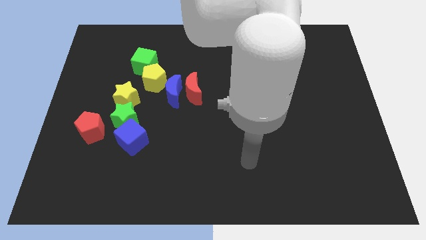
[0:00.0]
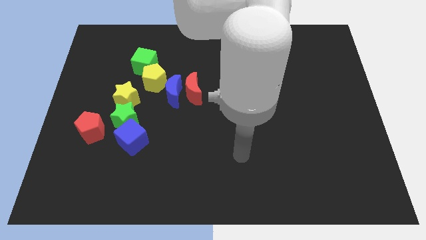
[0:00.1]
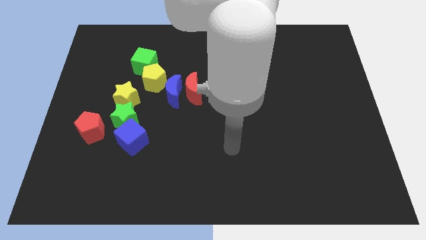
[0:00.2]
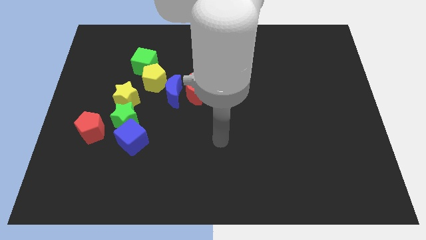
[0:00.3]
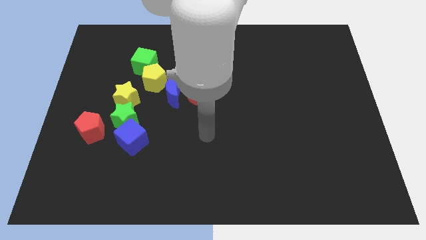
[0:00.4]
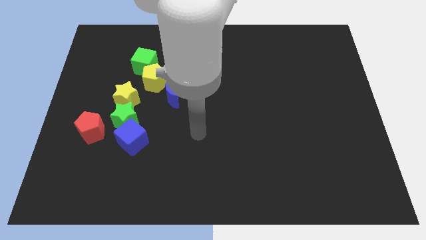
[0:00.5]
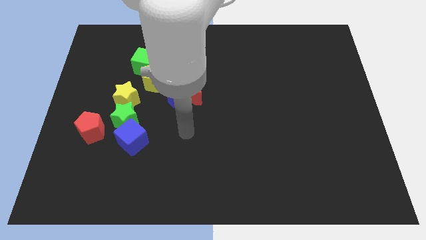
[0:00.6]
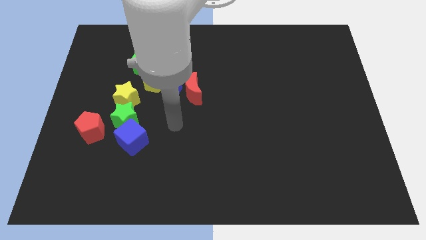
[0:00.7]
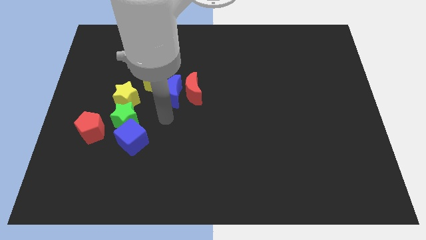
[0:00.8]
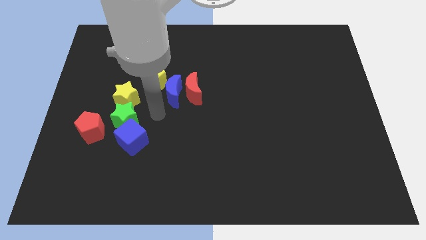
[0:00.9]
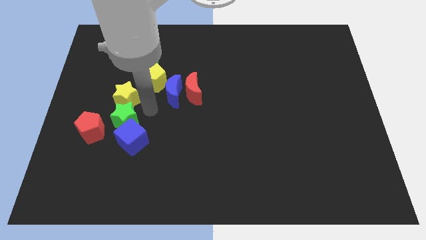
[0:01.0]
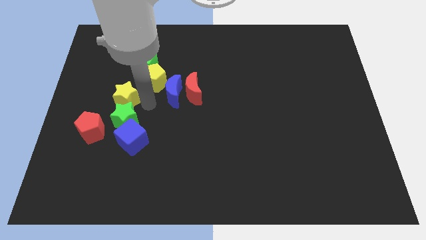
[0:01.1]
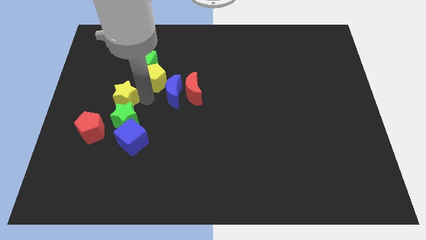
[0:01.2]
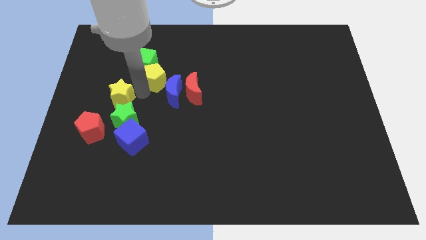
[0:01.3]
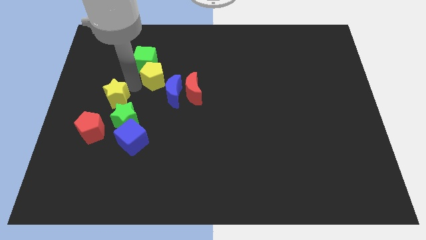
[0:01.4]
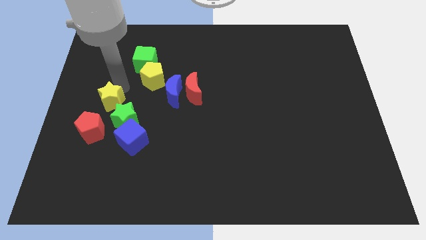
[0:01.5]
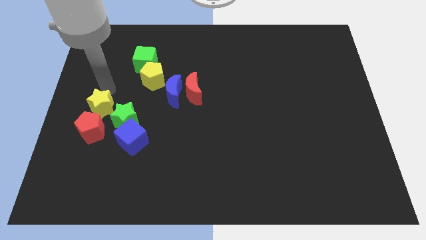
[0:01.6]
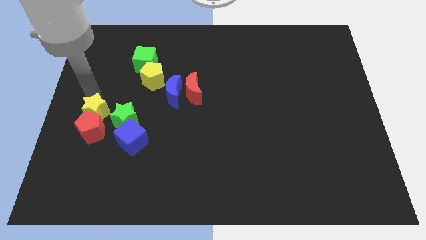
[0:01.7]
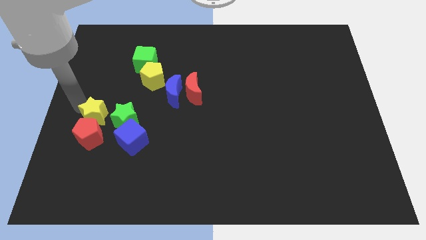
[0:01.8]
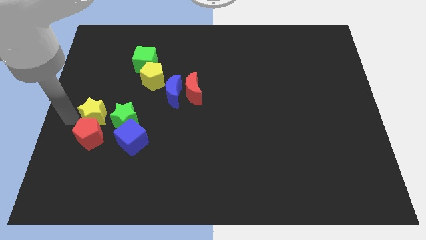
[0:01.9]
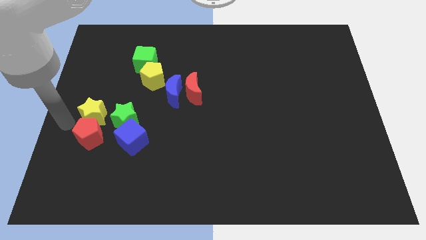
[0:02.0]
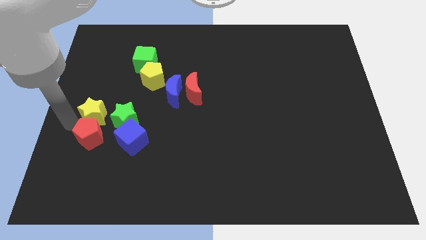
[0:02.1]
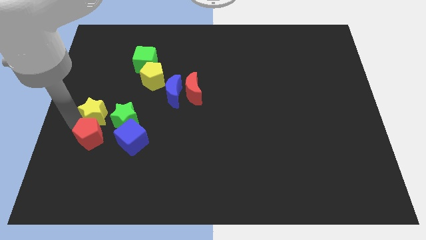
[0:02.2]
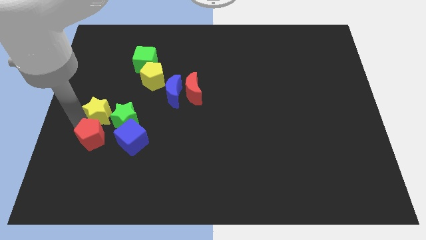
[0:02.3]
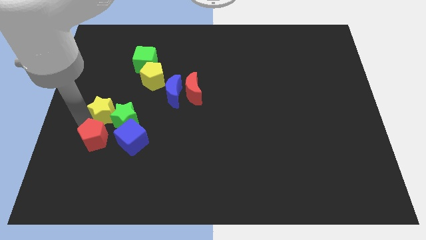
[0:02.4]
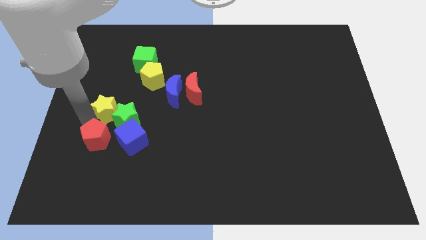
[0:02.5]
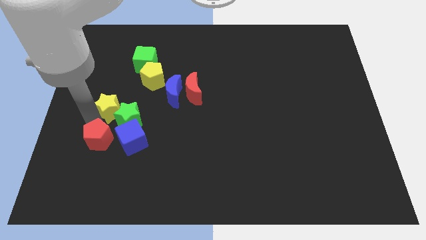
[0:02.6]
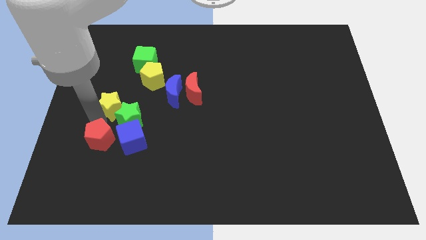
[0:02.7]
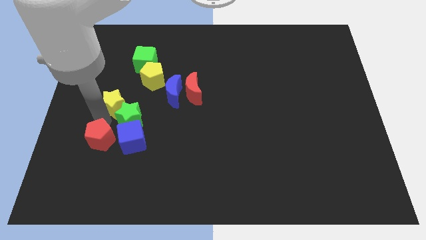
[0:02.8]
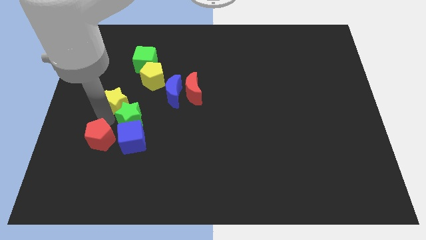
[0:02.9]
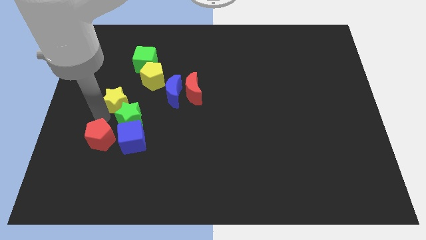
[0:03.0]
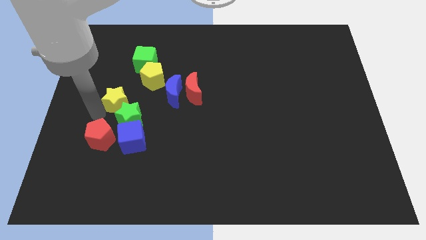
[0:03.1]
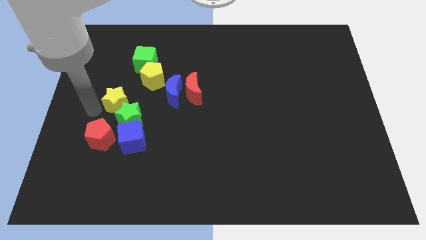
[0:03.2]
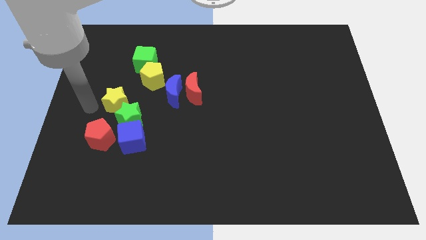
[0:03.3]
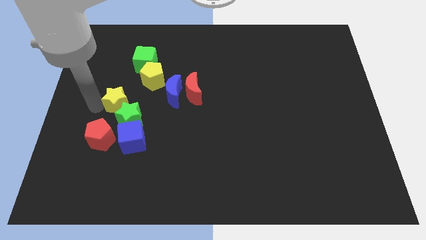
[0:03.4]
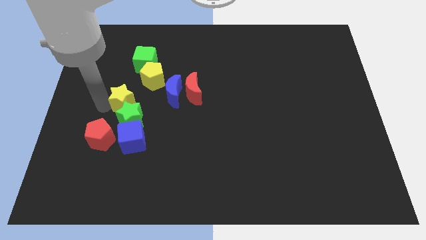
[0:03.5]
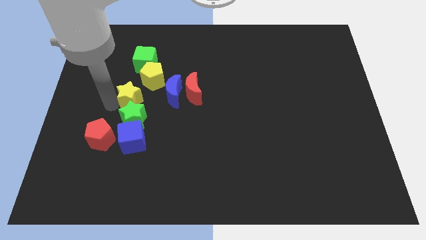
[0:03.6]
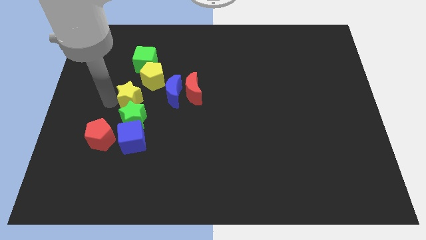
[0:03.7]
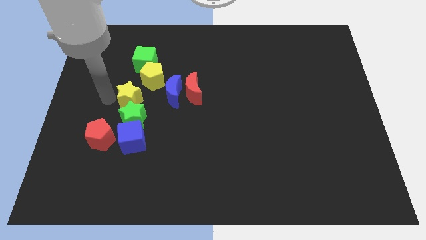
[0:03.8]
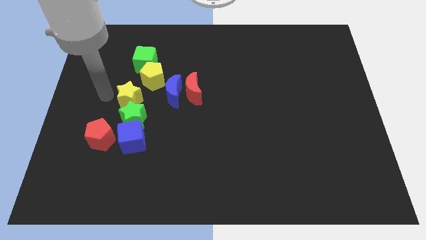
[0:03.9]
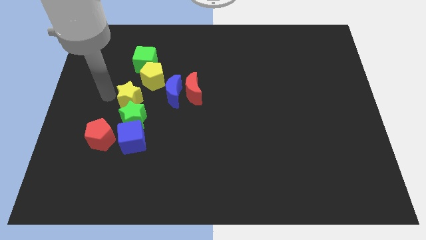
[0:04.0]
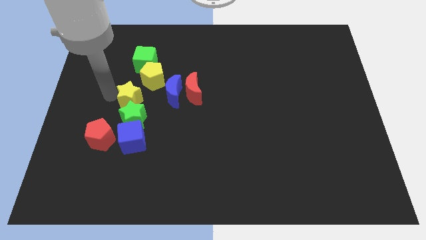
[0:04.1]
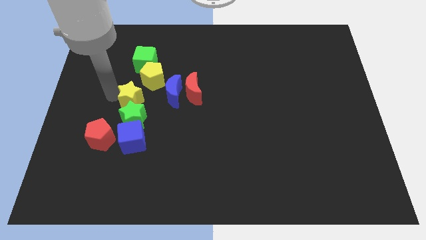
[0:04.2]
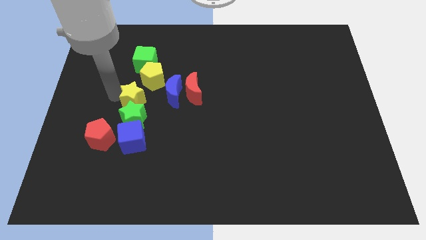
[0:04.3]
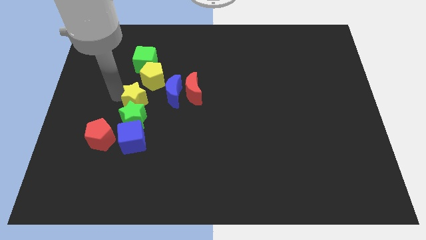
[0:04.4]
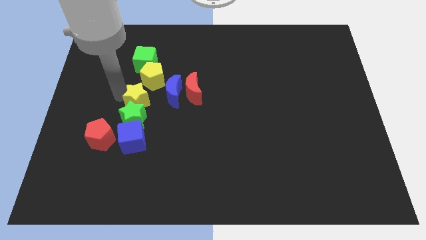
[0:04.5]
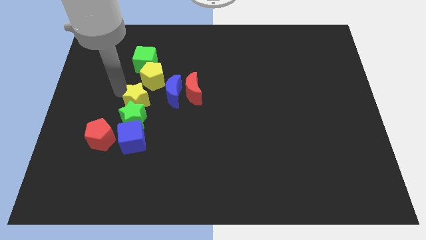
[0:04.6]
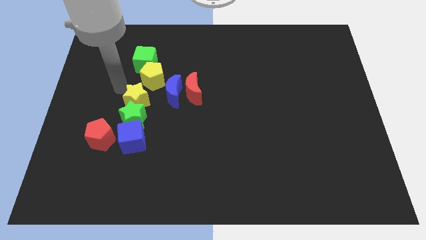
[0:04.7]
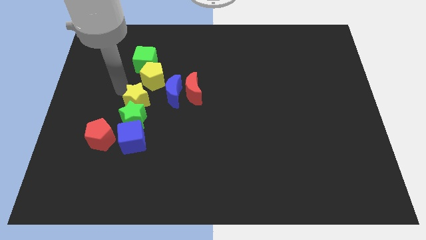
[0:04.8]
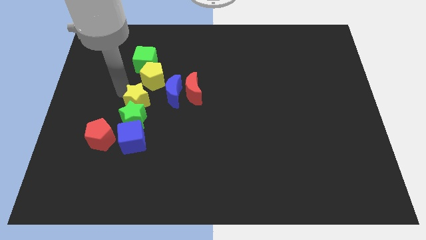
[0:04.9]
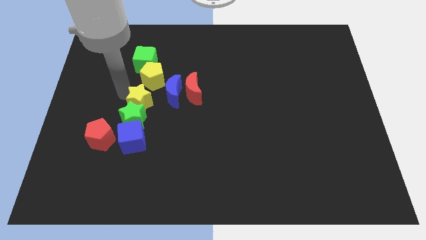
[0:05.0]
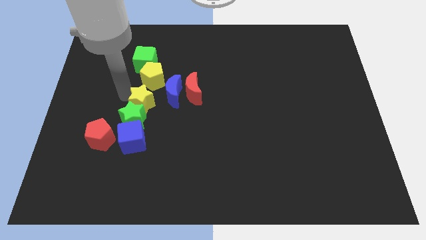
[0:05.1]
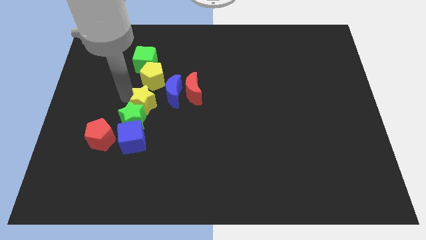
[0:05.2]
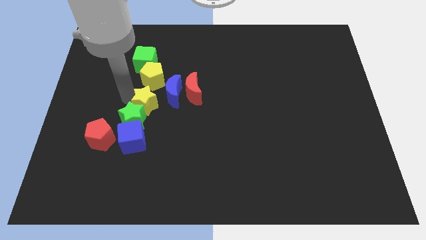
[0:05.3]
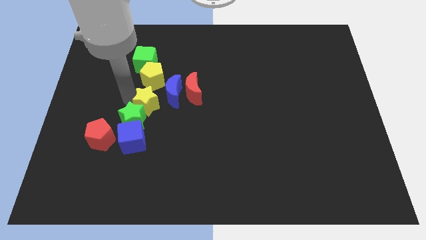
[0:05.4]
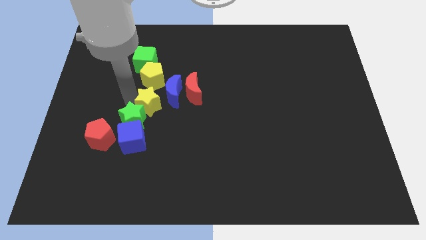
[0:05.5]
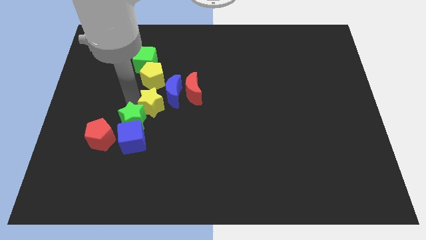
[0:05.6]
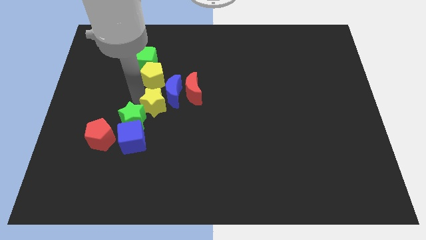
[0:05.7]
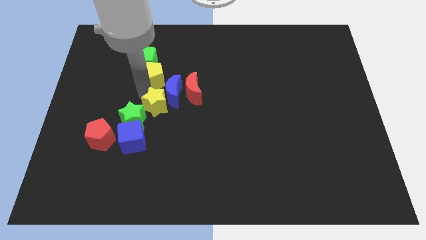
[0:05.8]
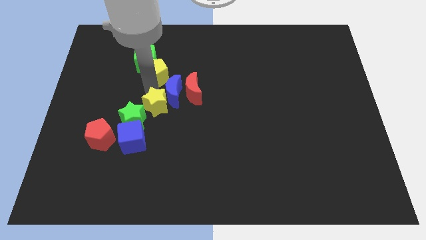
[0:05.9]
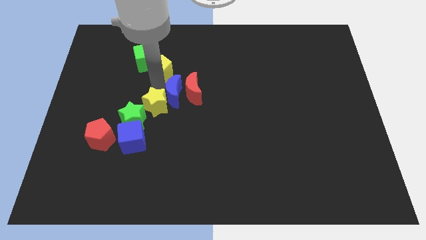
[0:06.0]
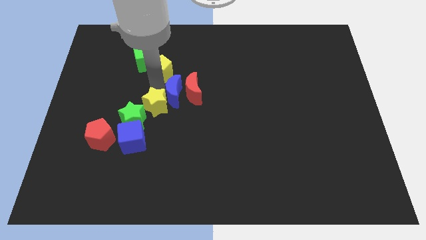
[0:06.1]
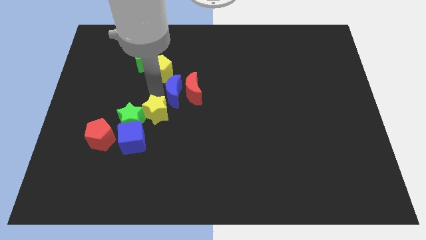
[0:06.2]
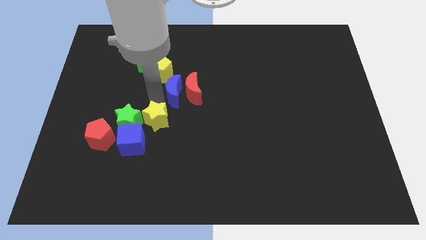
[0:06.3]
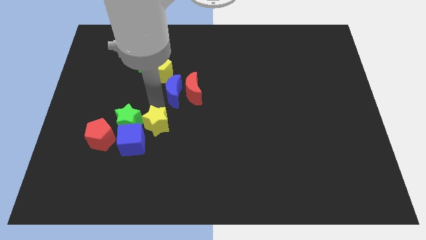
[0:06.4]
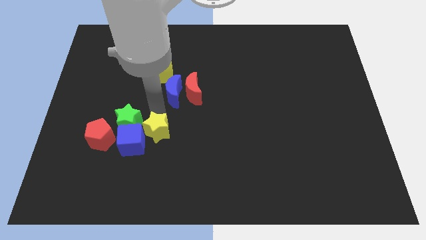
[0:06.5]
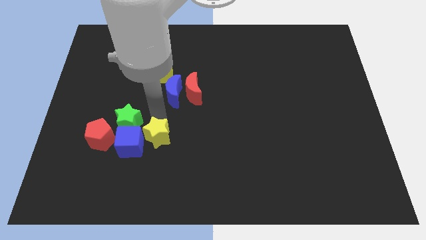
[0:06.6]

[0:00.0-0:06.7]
move the yellow star down a bit

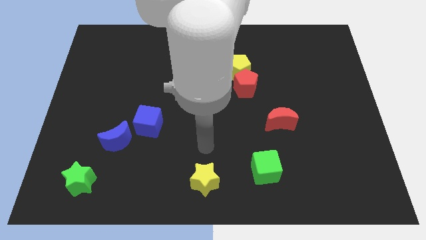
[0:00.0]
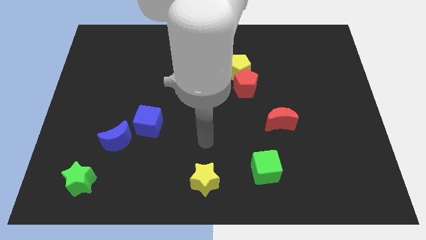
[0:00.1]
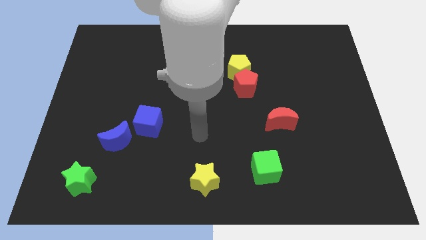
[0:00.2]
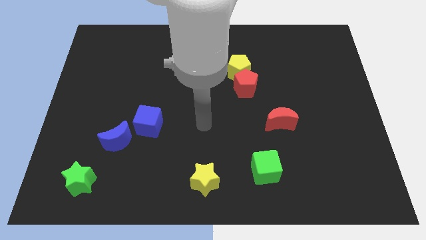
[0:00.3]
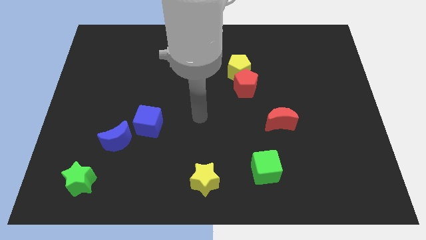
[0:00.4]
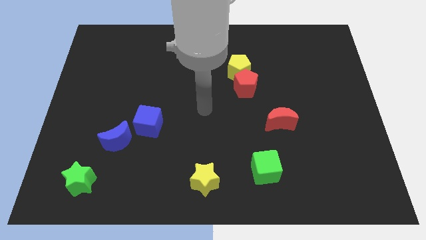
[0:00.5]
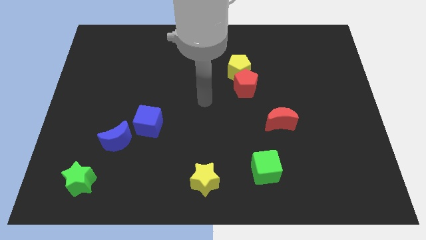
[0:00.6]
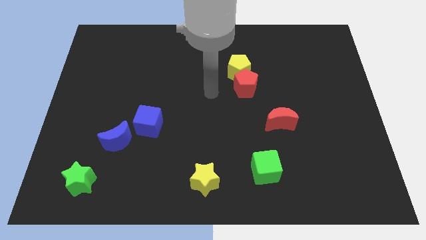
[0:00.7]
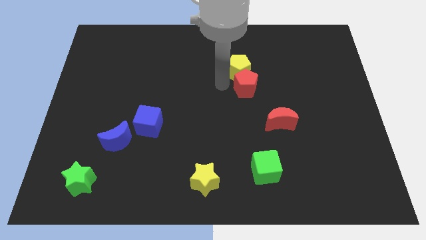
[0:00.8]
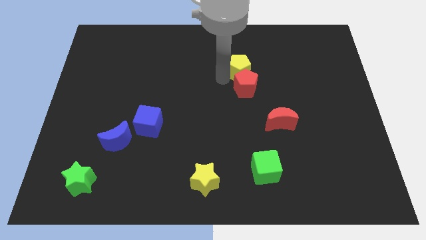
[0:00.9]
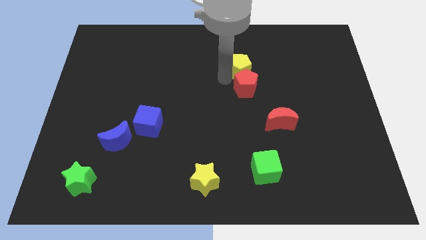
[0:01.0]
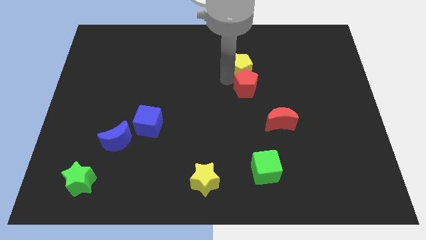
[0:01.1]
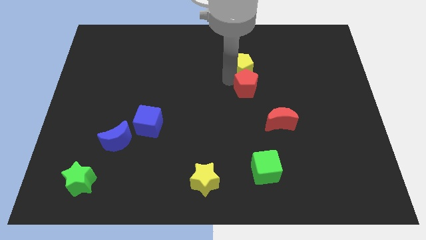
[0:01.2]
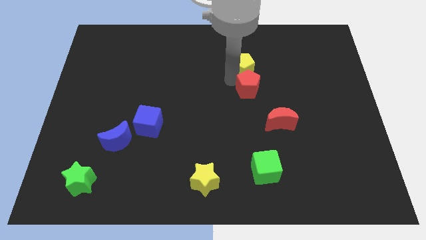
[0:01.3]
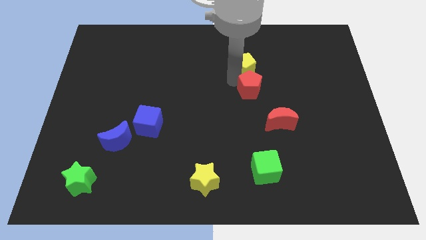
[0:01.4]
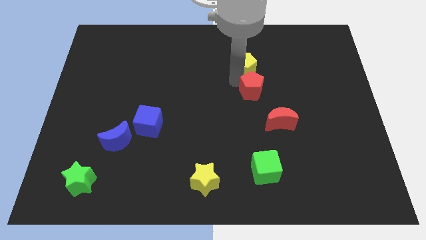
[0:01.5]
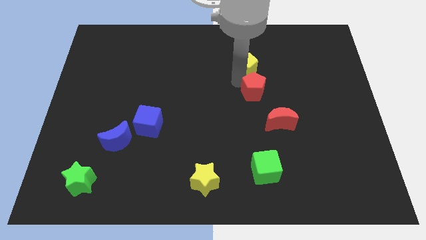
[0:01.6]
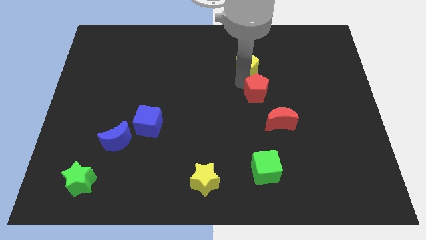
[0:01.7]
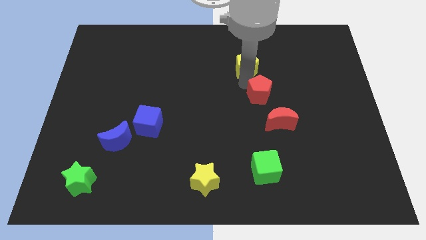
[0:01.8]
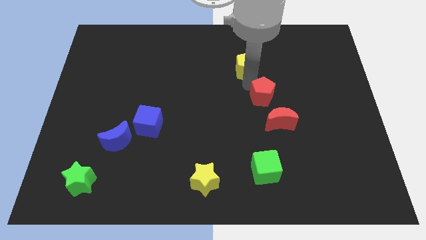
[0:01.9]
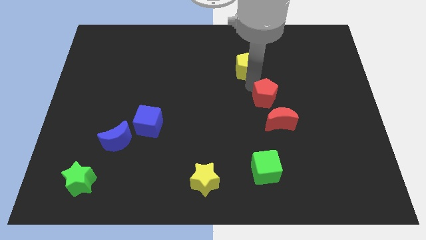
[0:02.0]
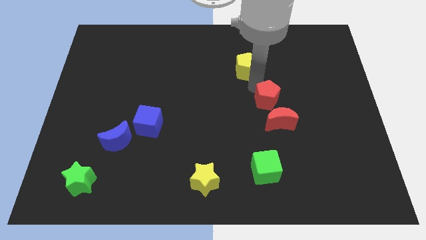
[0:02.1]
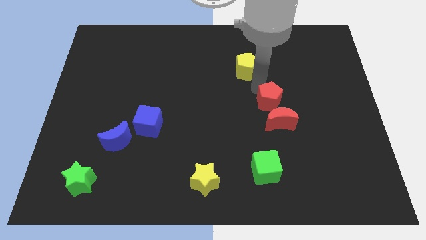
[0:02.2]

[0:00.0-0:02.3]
slightly slide the red pentagon down and right diagonally
